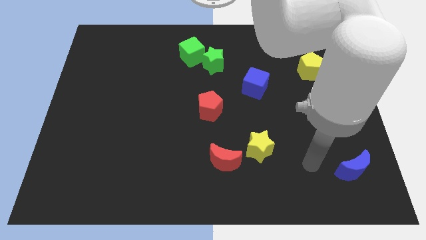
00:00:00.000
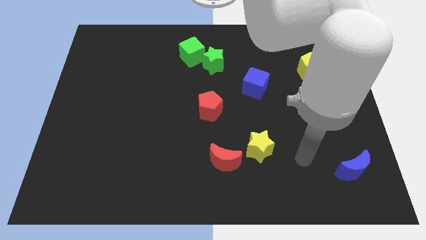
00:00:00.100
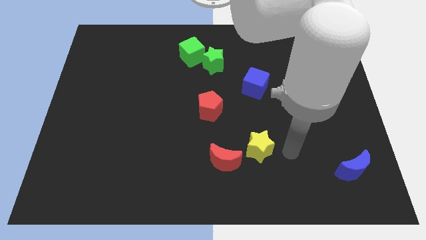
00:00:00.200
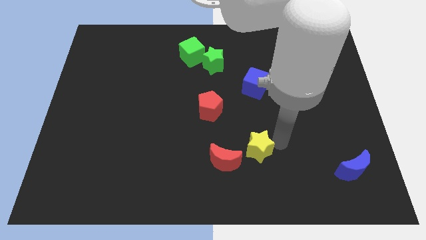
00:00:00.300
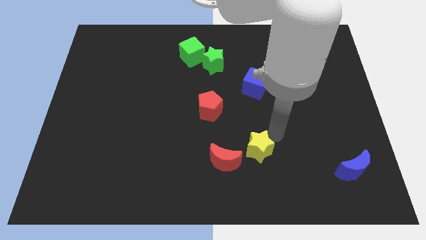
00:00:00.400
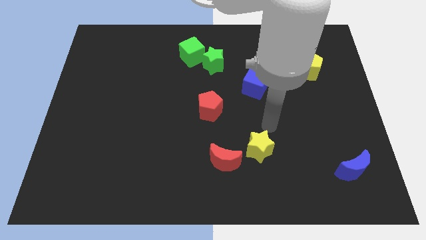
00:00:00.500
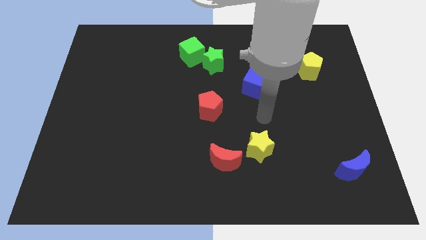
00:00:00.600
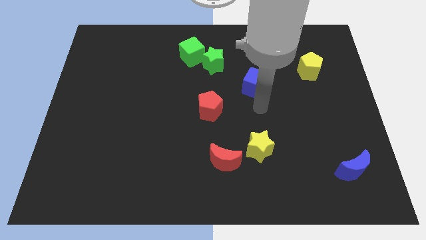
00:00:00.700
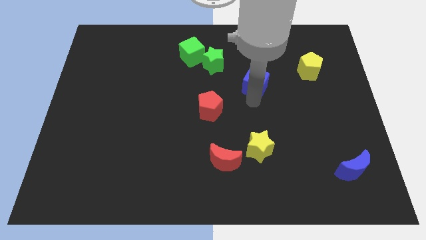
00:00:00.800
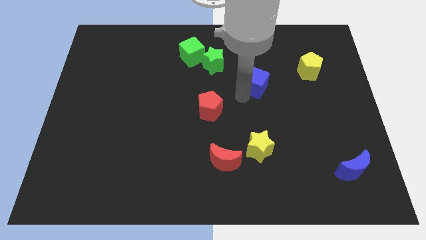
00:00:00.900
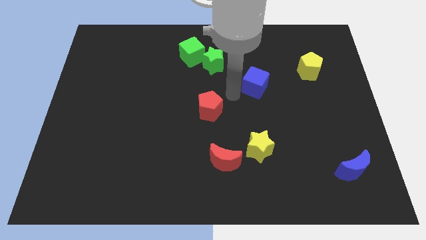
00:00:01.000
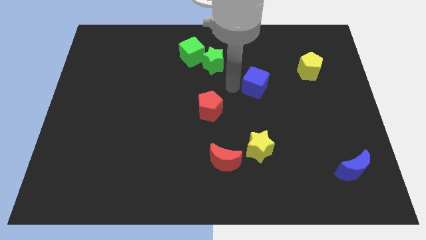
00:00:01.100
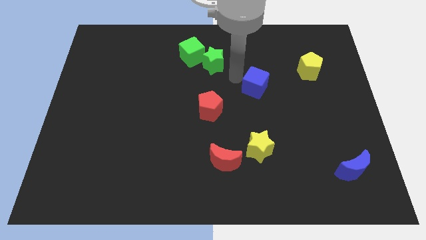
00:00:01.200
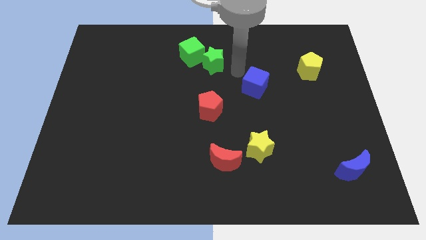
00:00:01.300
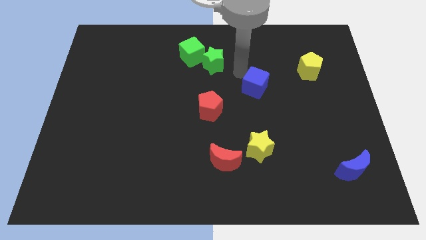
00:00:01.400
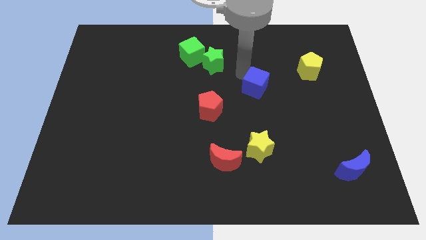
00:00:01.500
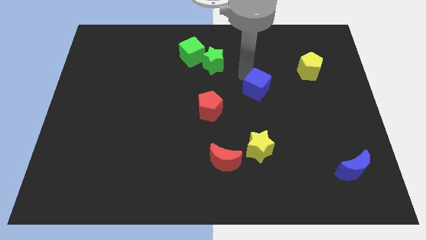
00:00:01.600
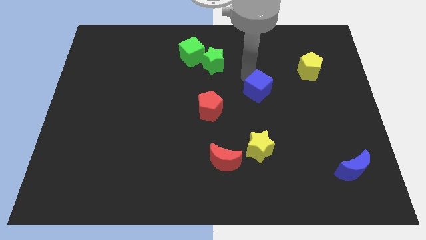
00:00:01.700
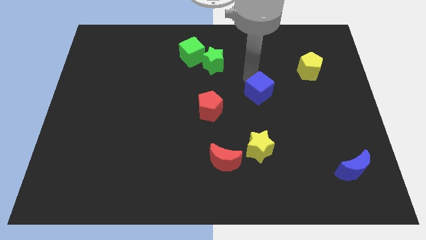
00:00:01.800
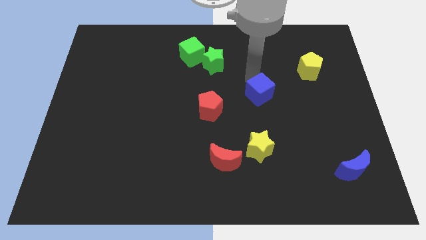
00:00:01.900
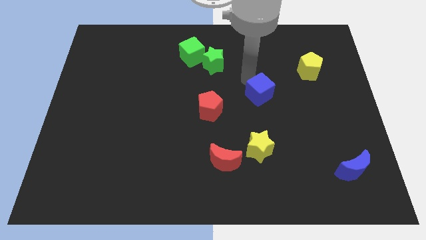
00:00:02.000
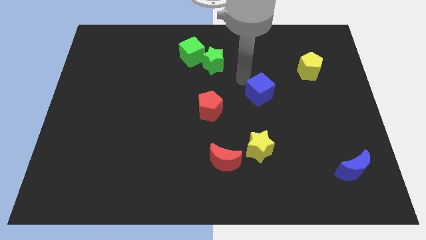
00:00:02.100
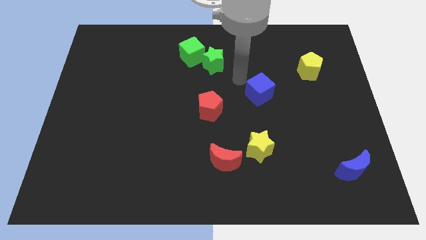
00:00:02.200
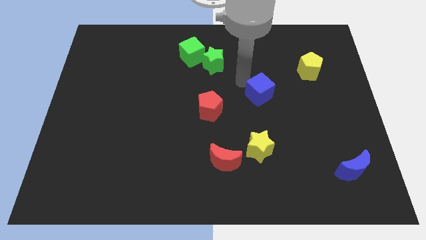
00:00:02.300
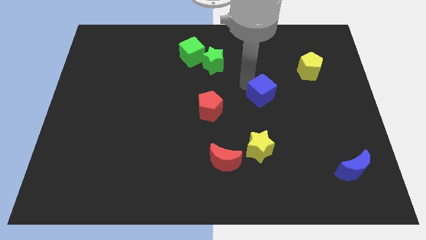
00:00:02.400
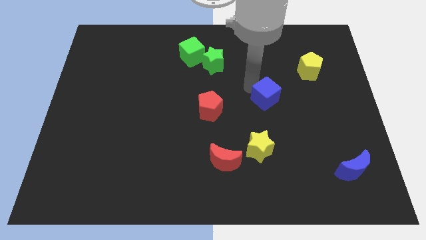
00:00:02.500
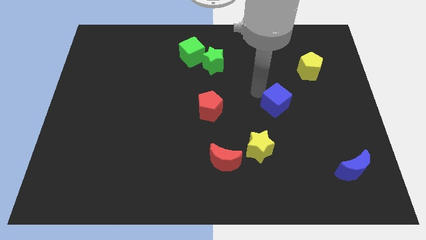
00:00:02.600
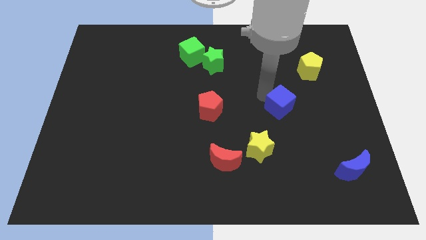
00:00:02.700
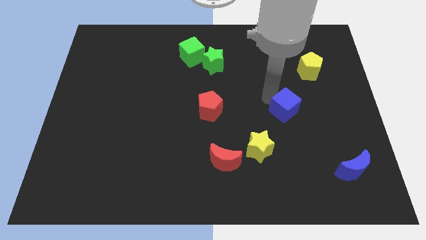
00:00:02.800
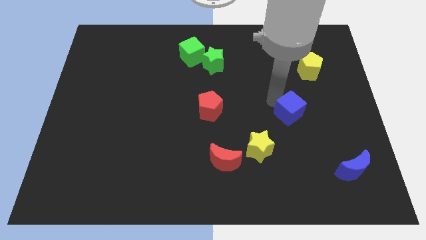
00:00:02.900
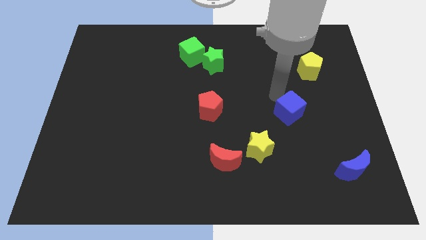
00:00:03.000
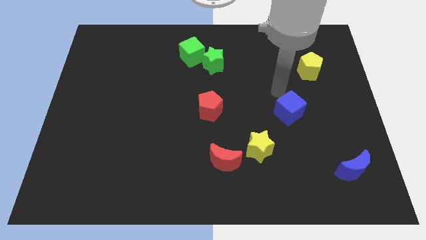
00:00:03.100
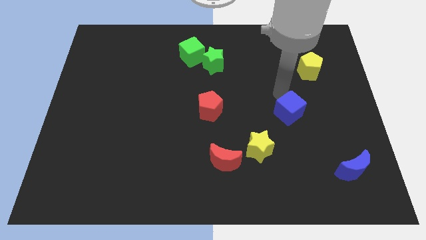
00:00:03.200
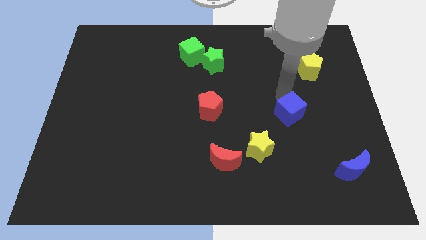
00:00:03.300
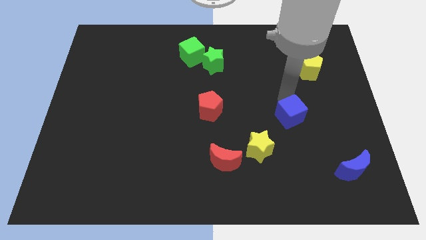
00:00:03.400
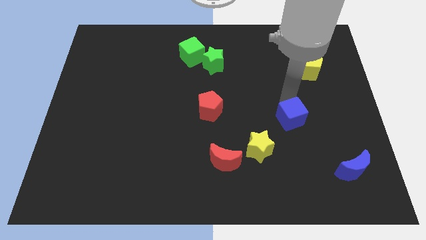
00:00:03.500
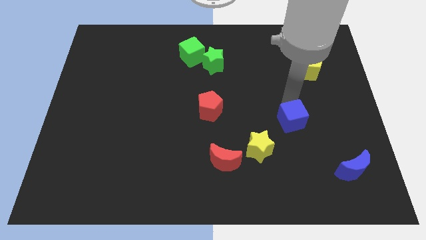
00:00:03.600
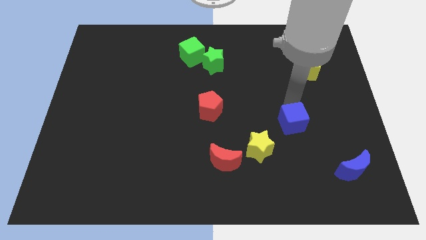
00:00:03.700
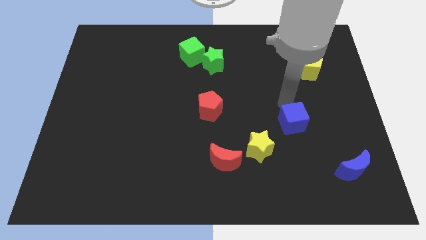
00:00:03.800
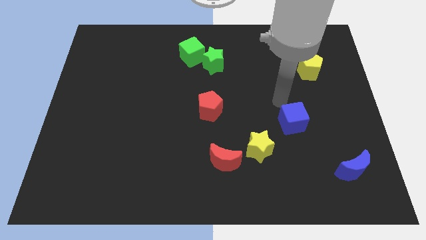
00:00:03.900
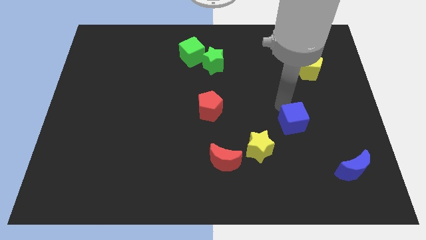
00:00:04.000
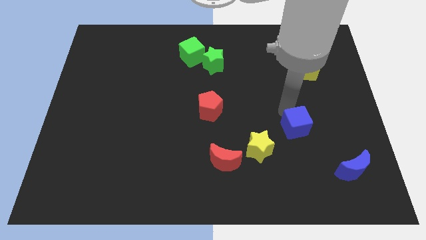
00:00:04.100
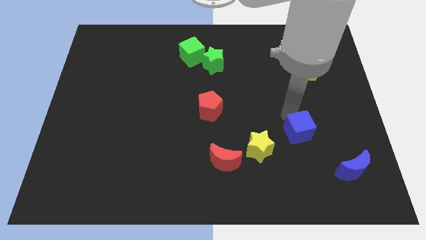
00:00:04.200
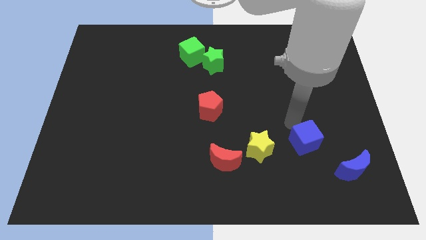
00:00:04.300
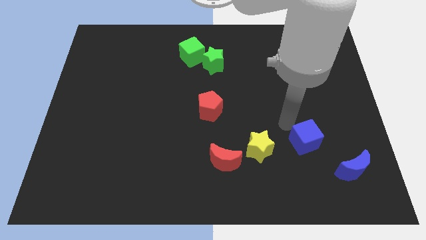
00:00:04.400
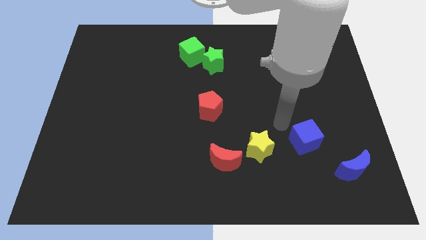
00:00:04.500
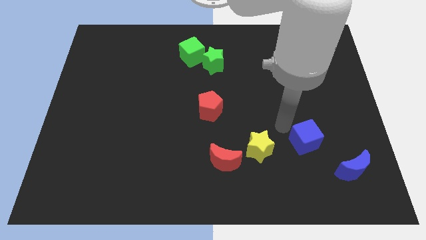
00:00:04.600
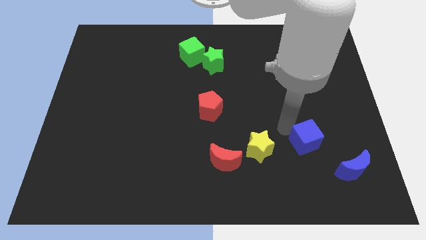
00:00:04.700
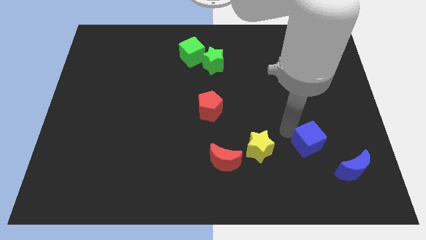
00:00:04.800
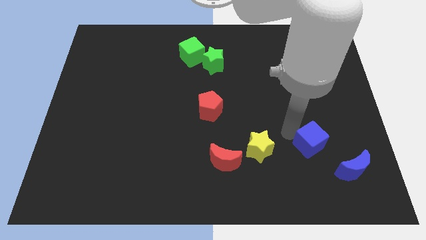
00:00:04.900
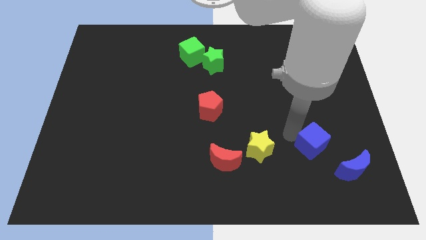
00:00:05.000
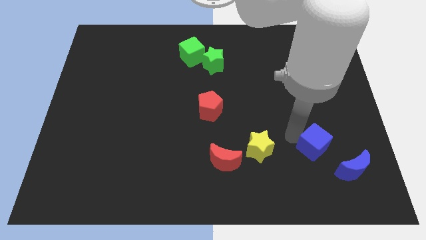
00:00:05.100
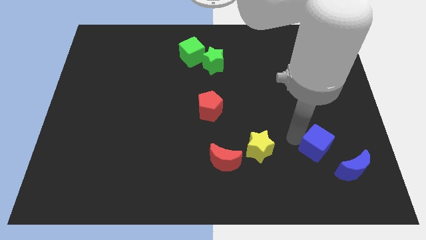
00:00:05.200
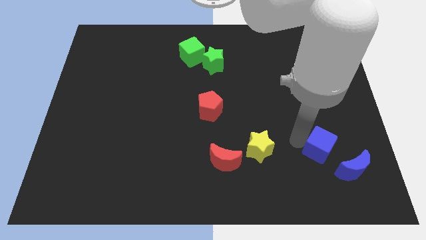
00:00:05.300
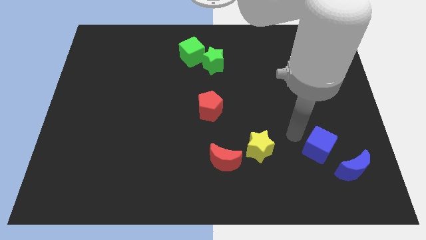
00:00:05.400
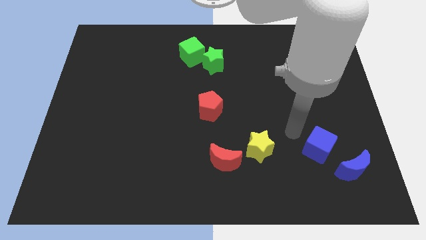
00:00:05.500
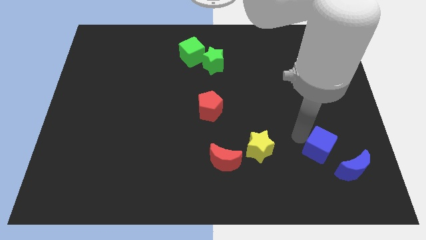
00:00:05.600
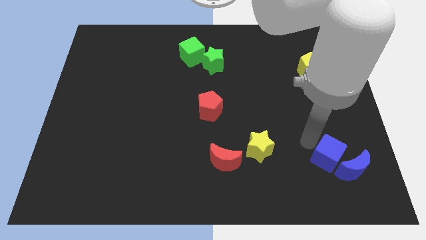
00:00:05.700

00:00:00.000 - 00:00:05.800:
put the blue cube close to the blue moon

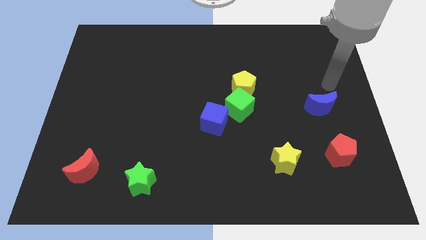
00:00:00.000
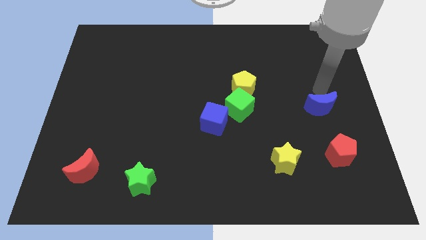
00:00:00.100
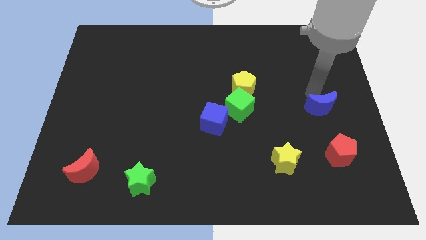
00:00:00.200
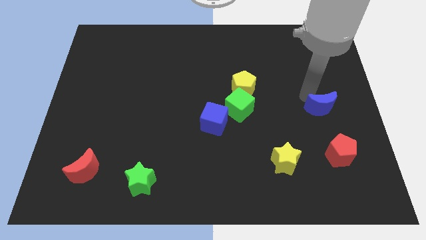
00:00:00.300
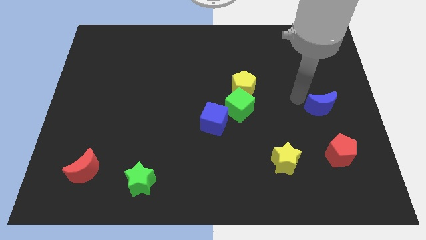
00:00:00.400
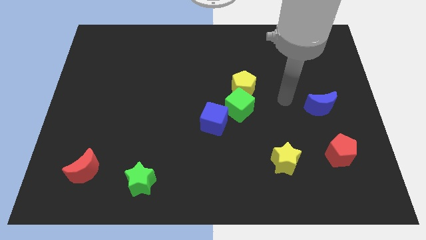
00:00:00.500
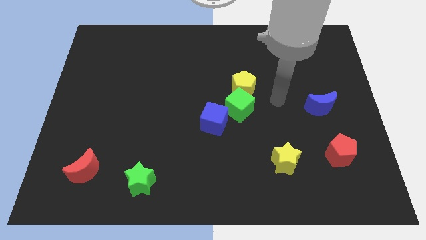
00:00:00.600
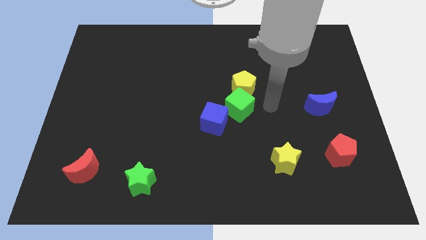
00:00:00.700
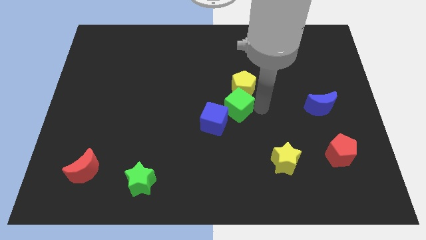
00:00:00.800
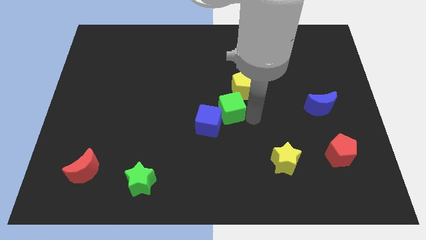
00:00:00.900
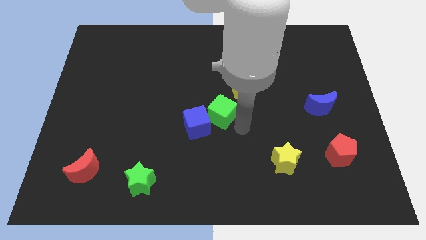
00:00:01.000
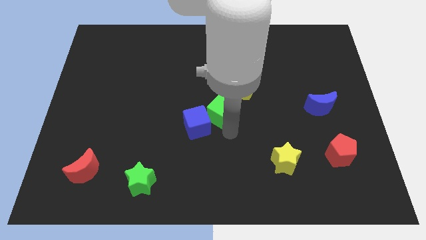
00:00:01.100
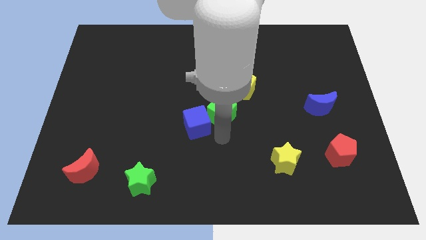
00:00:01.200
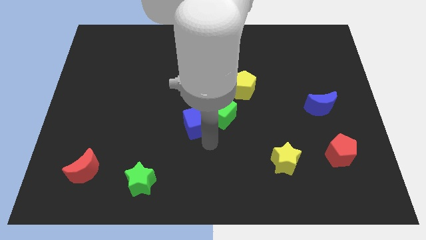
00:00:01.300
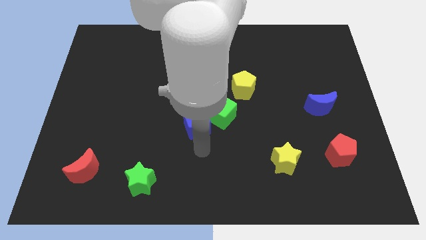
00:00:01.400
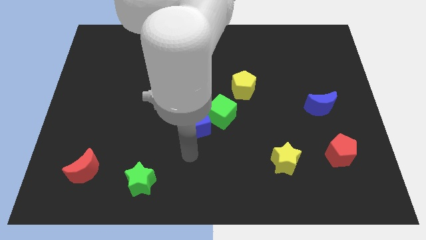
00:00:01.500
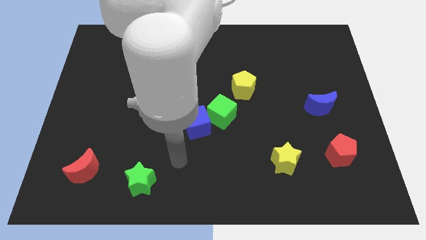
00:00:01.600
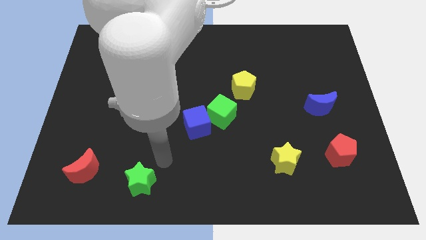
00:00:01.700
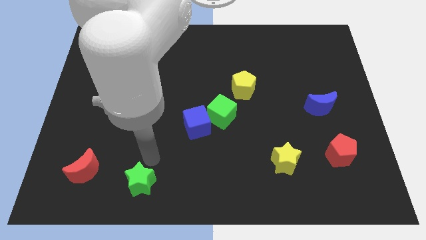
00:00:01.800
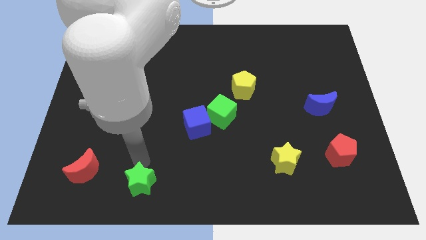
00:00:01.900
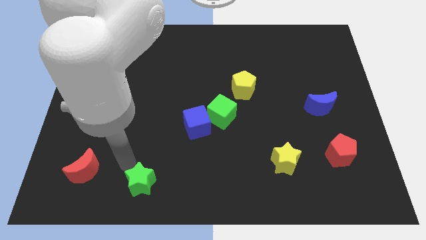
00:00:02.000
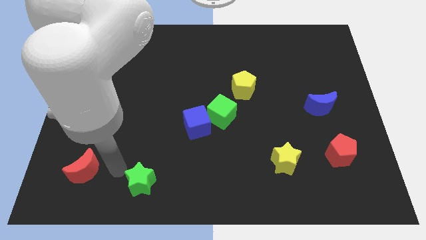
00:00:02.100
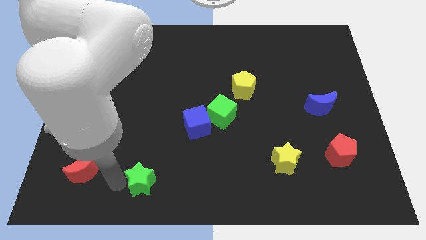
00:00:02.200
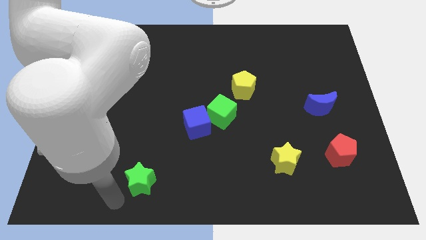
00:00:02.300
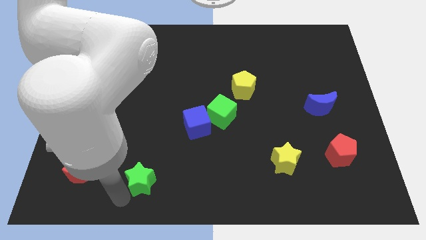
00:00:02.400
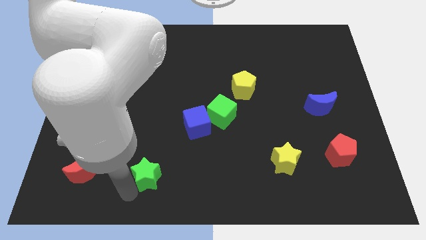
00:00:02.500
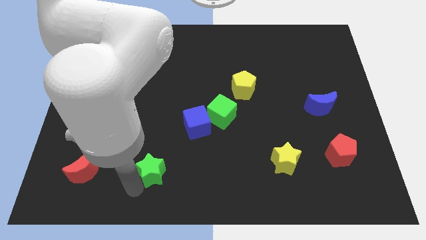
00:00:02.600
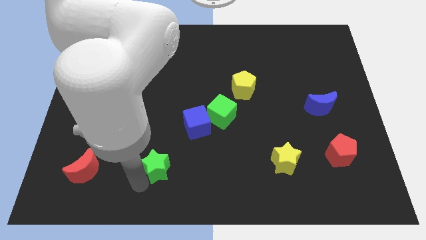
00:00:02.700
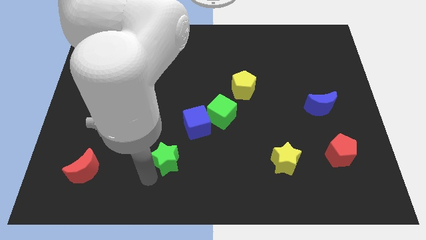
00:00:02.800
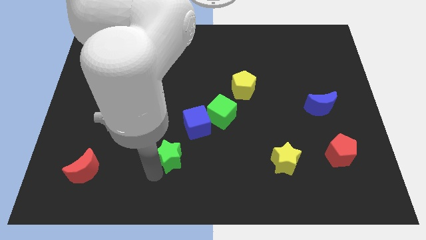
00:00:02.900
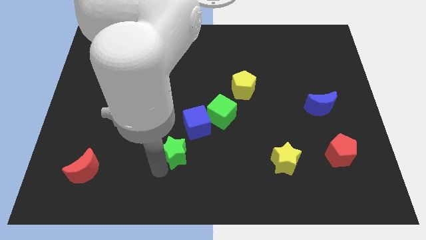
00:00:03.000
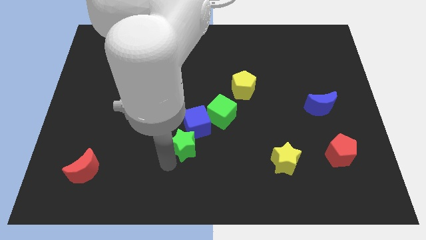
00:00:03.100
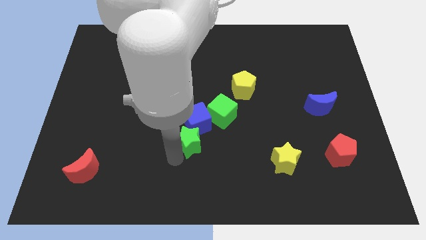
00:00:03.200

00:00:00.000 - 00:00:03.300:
slide the green star next to the blue cube
